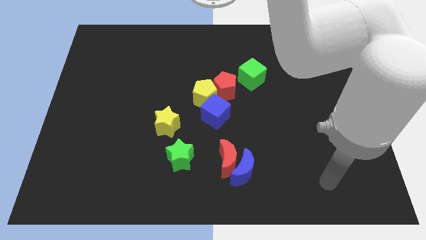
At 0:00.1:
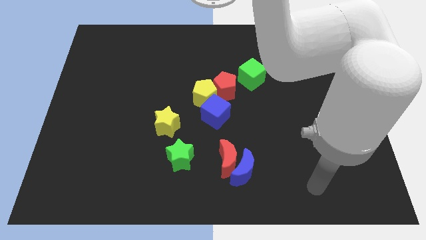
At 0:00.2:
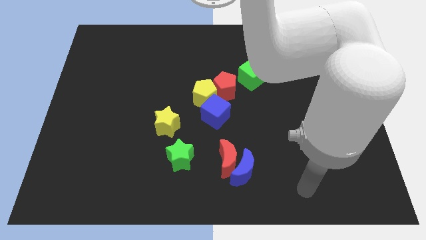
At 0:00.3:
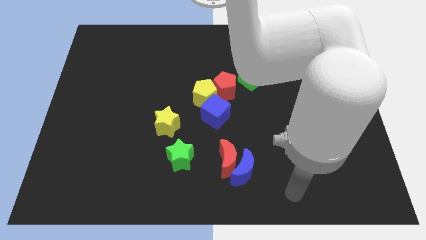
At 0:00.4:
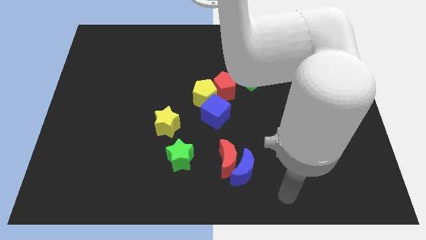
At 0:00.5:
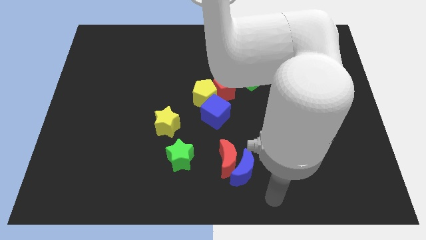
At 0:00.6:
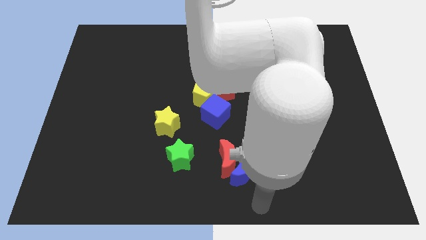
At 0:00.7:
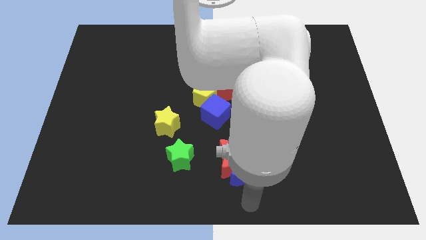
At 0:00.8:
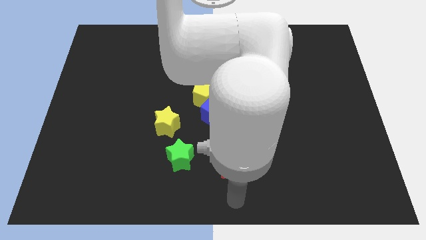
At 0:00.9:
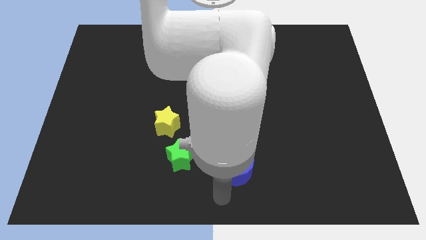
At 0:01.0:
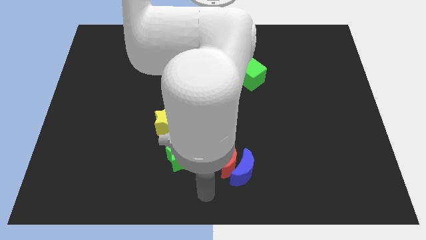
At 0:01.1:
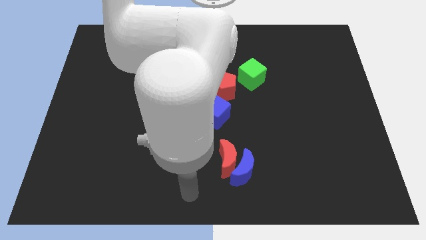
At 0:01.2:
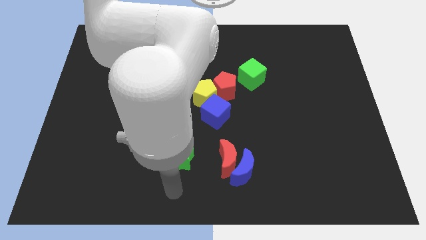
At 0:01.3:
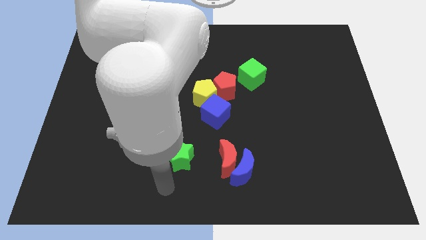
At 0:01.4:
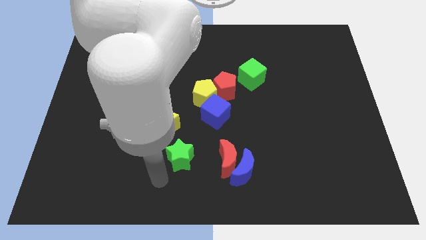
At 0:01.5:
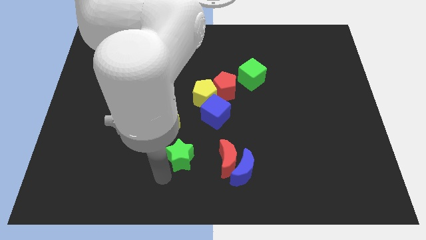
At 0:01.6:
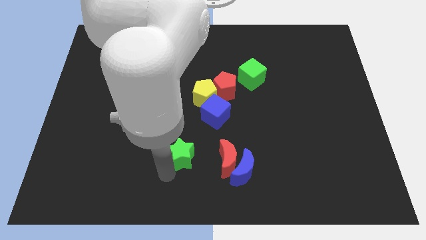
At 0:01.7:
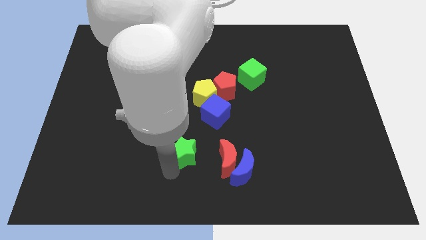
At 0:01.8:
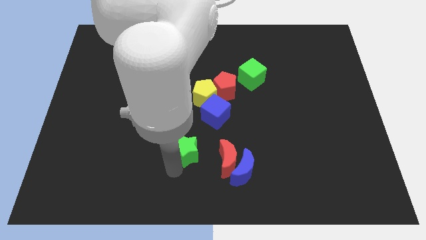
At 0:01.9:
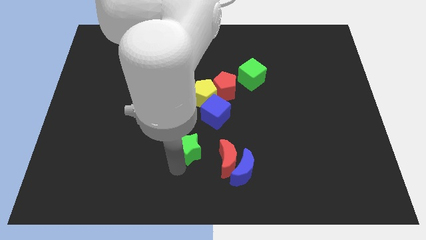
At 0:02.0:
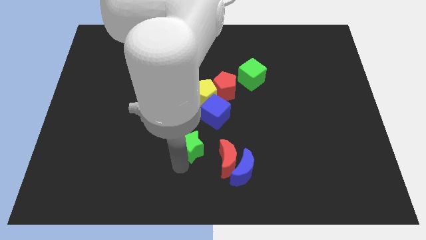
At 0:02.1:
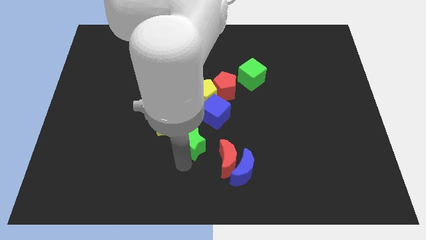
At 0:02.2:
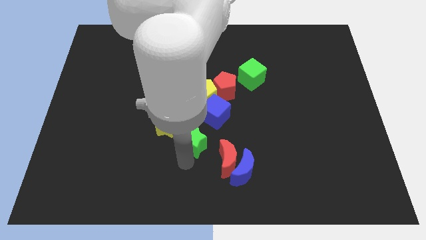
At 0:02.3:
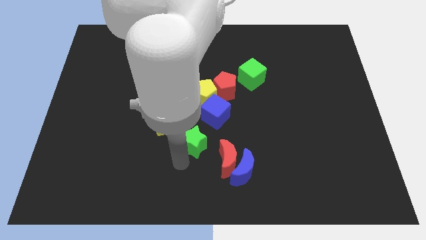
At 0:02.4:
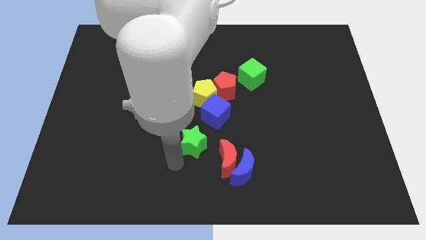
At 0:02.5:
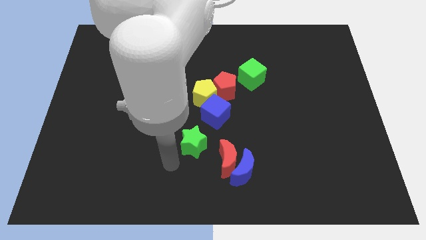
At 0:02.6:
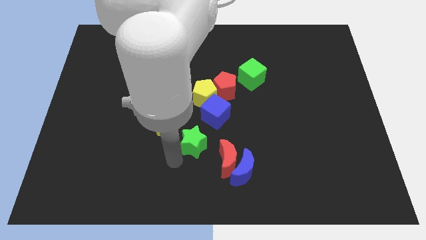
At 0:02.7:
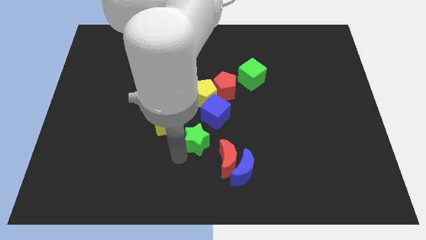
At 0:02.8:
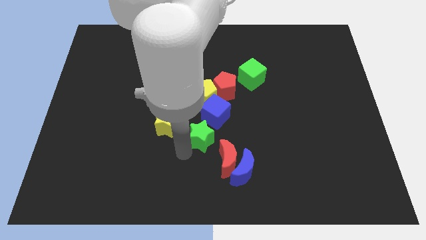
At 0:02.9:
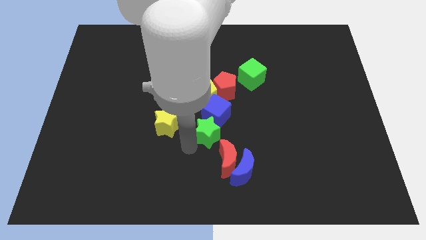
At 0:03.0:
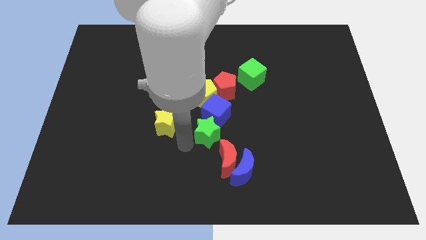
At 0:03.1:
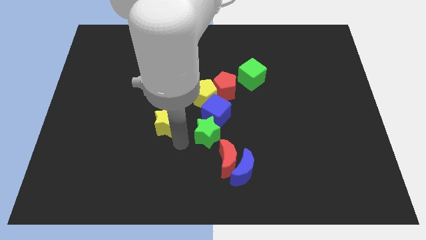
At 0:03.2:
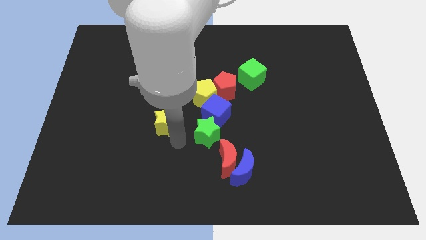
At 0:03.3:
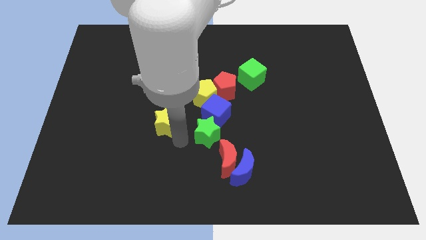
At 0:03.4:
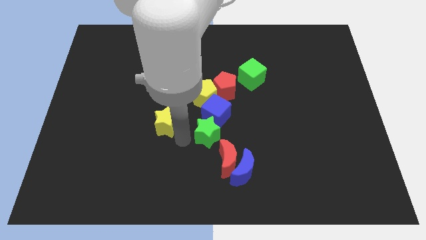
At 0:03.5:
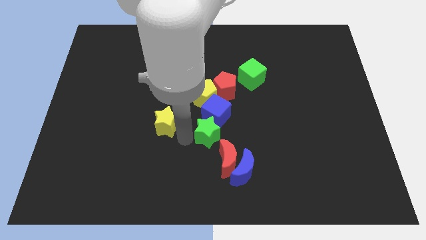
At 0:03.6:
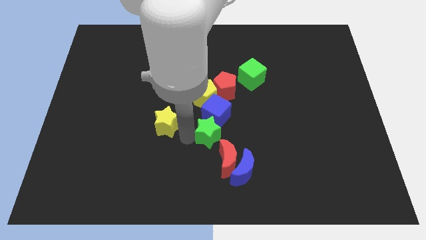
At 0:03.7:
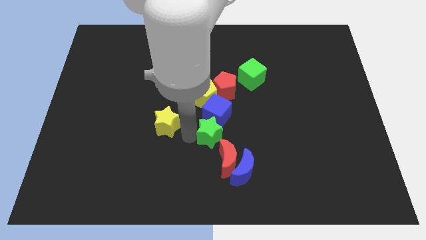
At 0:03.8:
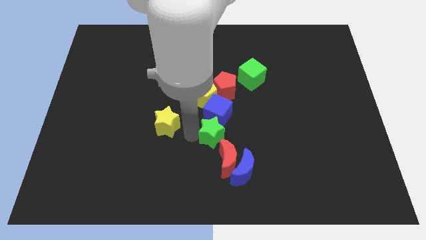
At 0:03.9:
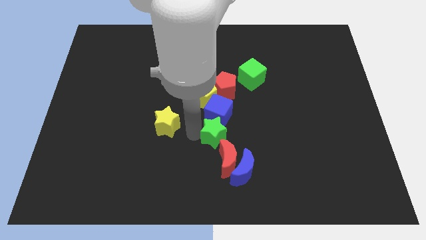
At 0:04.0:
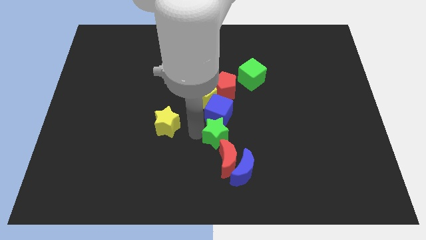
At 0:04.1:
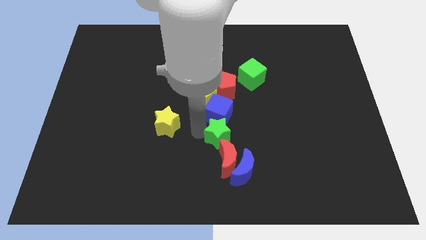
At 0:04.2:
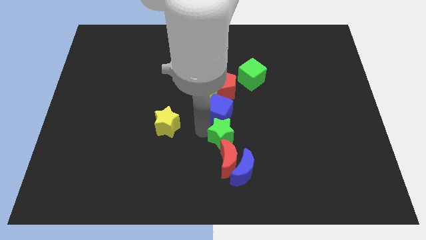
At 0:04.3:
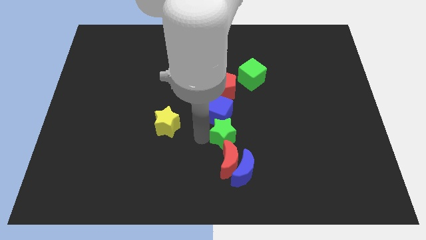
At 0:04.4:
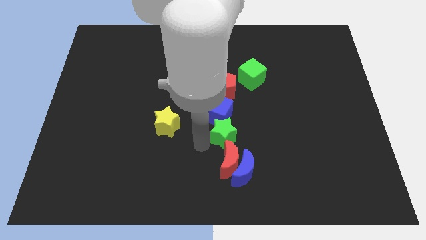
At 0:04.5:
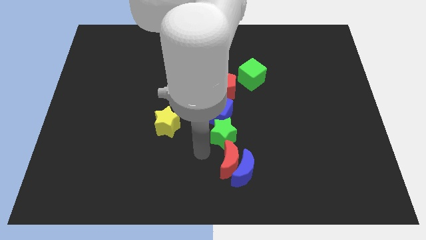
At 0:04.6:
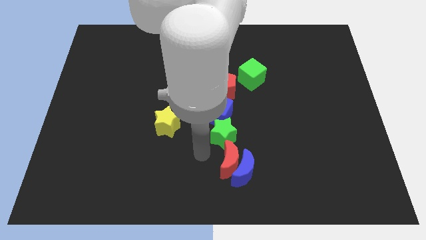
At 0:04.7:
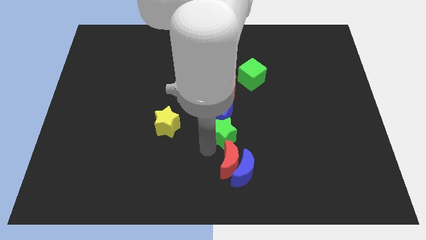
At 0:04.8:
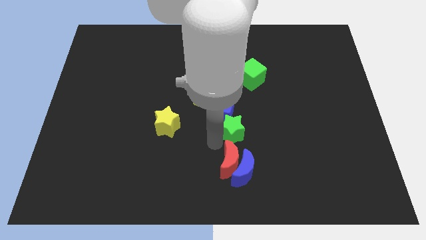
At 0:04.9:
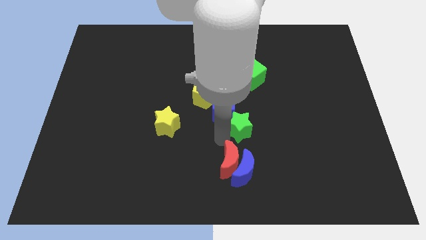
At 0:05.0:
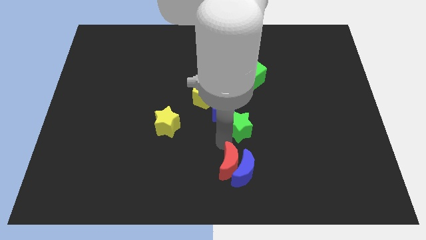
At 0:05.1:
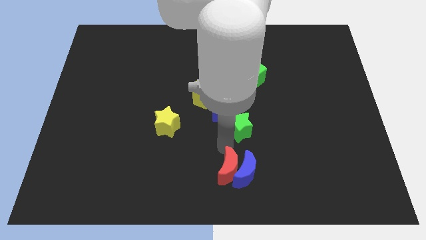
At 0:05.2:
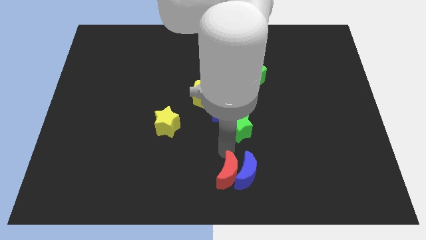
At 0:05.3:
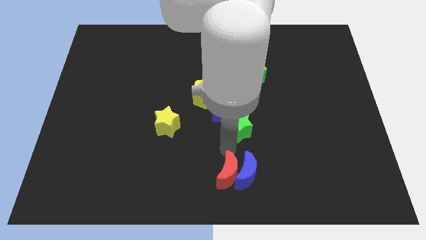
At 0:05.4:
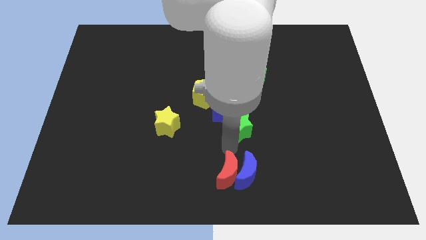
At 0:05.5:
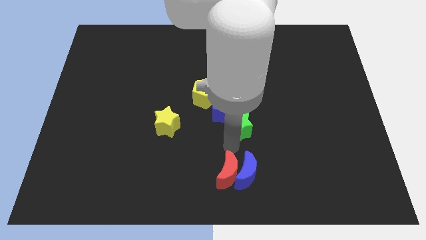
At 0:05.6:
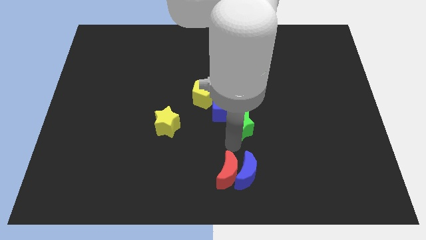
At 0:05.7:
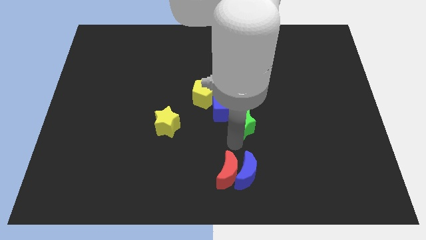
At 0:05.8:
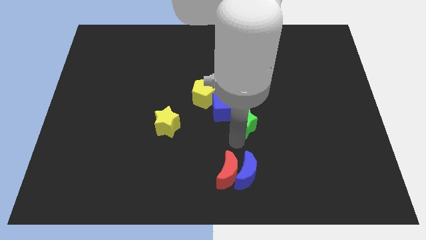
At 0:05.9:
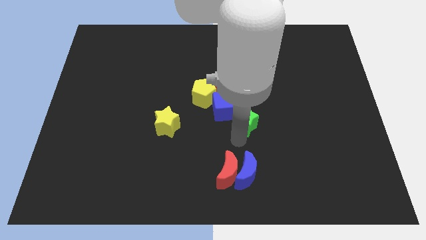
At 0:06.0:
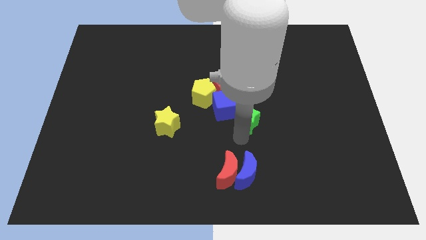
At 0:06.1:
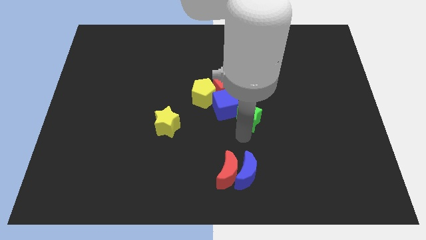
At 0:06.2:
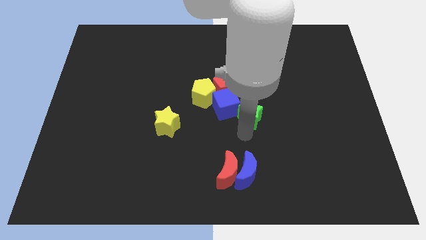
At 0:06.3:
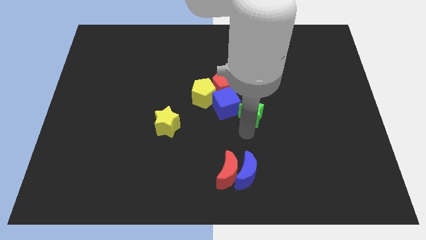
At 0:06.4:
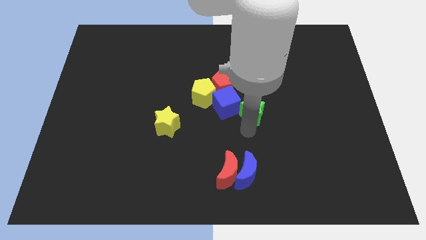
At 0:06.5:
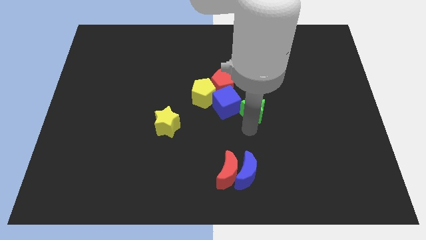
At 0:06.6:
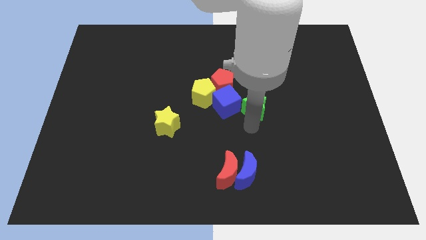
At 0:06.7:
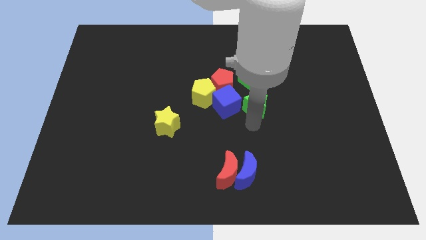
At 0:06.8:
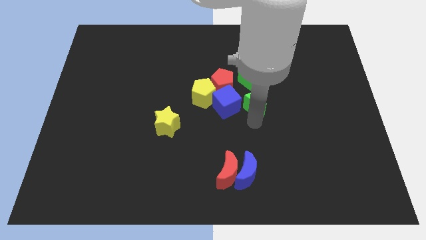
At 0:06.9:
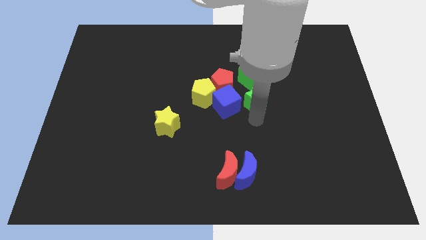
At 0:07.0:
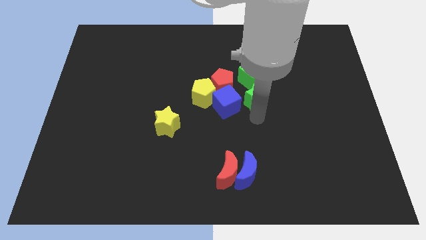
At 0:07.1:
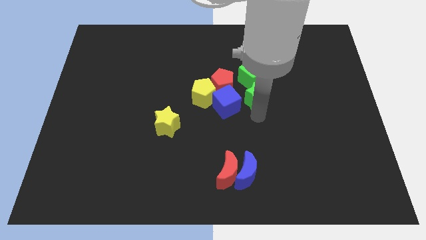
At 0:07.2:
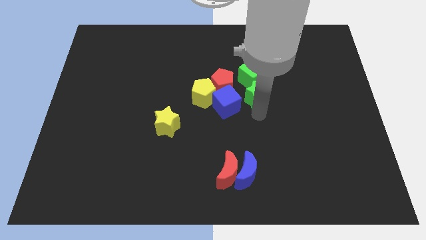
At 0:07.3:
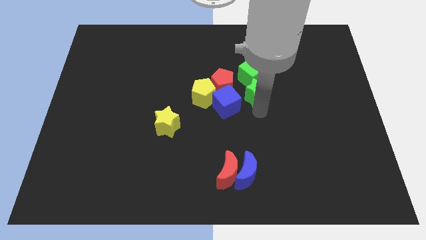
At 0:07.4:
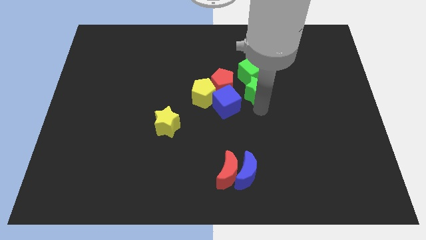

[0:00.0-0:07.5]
push the green star next to the green cube
